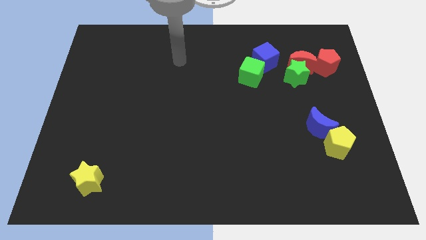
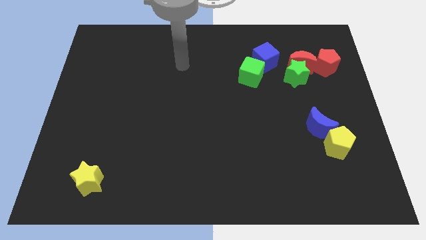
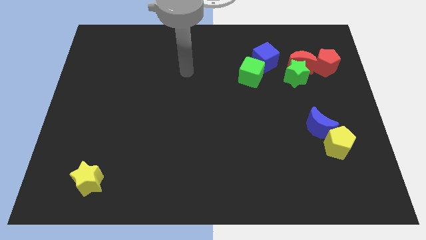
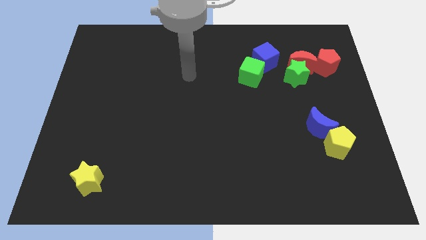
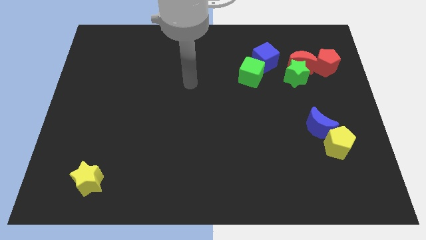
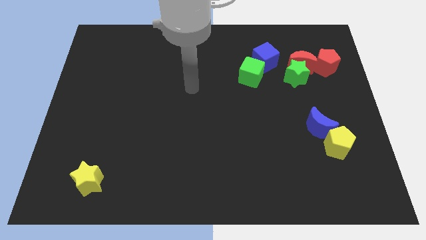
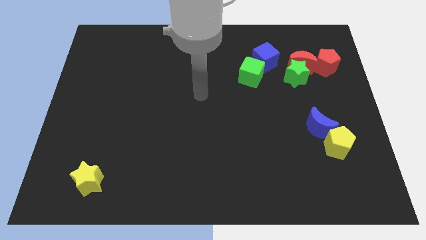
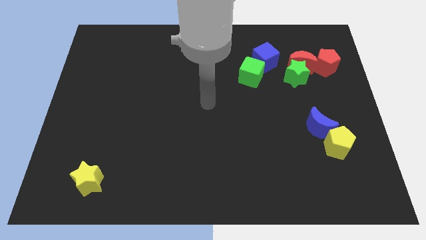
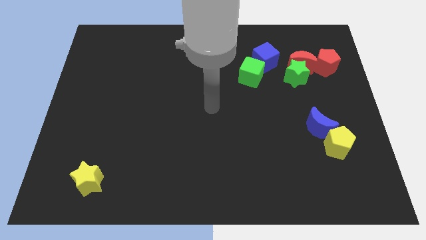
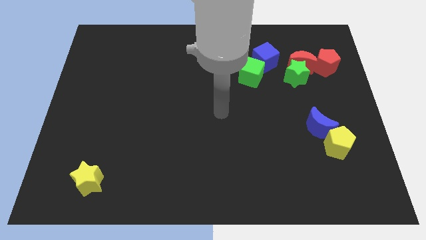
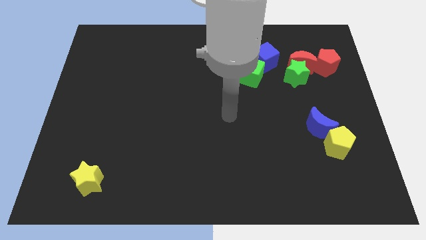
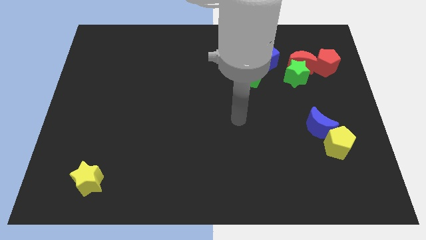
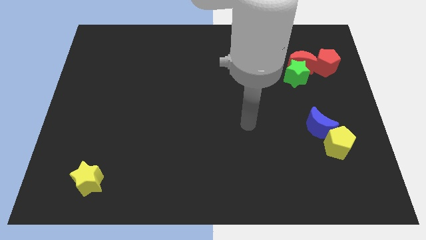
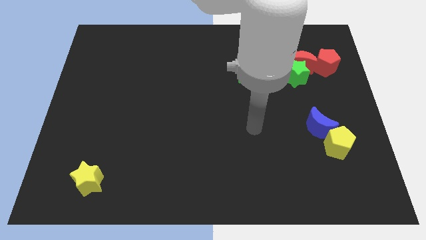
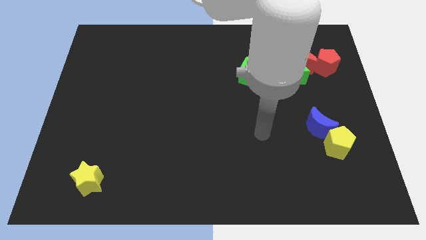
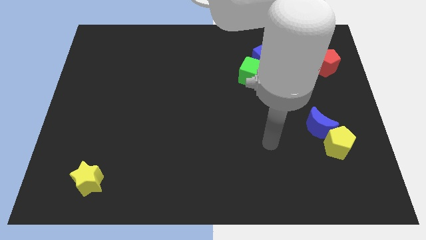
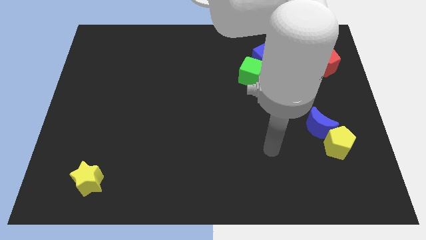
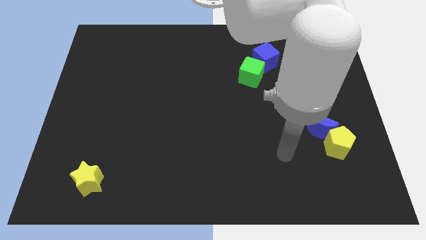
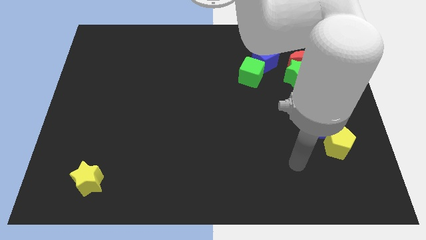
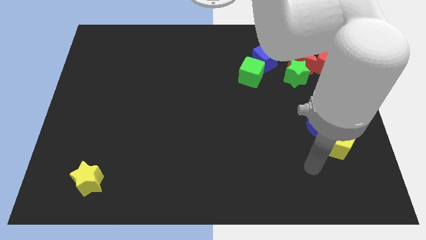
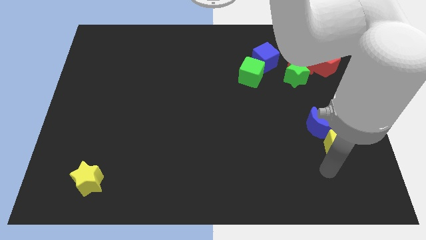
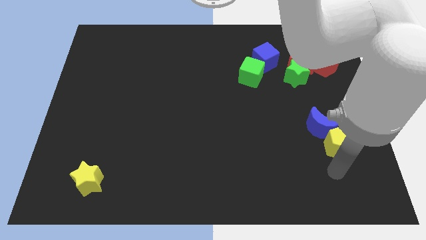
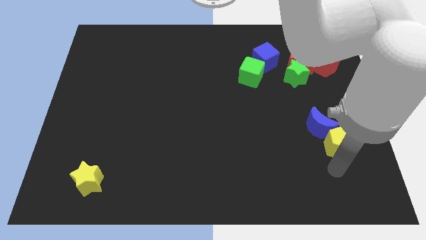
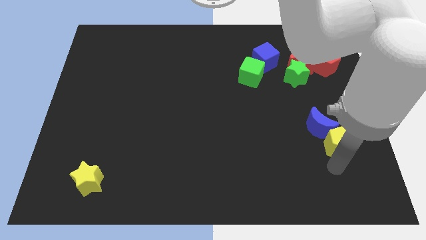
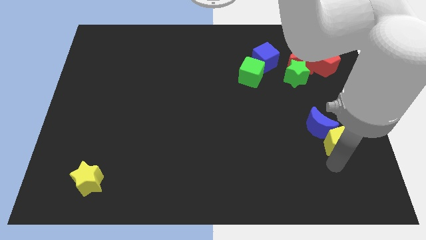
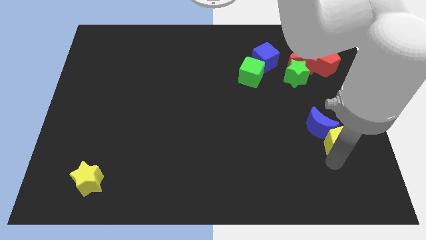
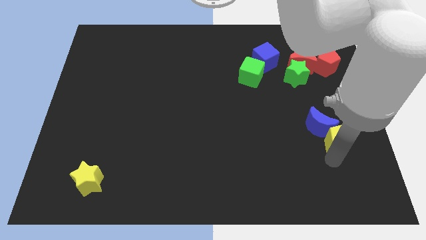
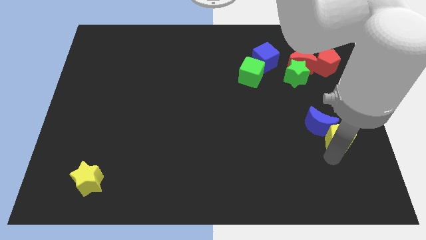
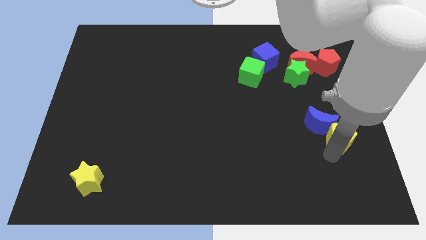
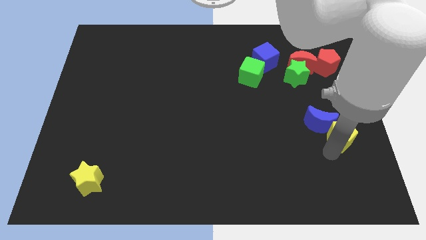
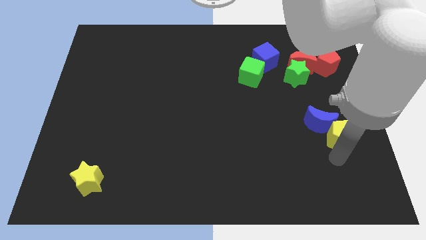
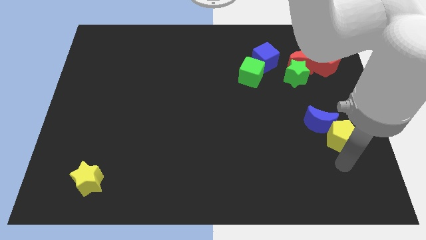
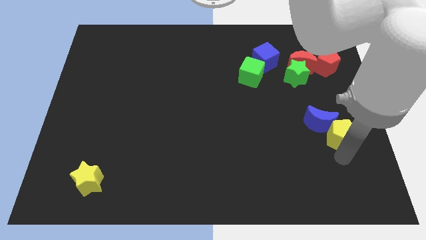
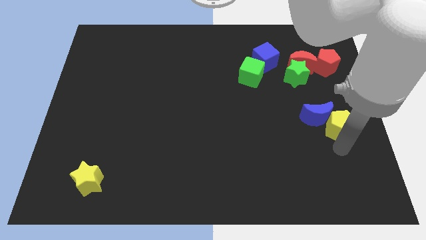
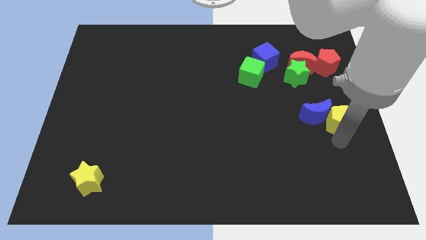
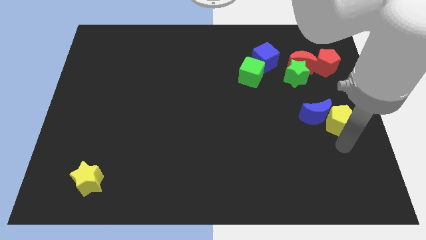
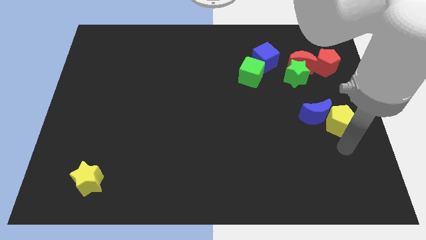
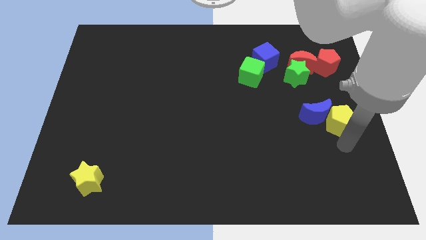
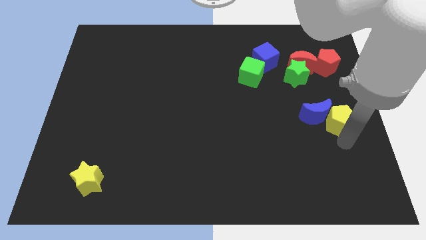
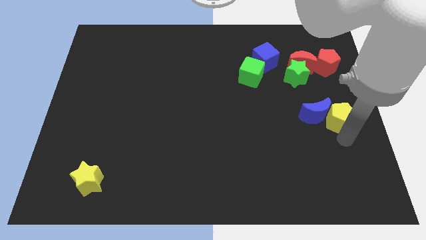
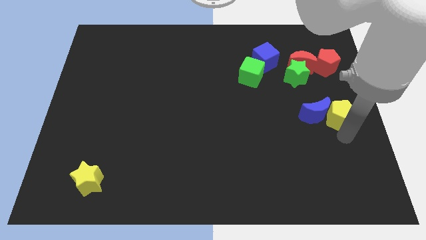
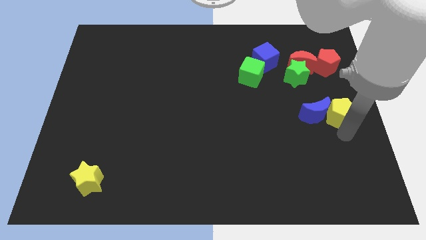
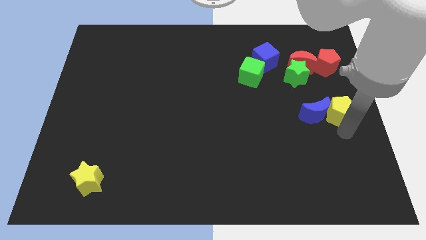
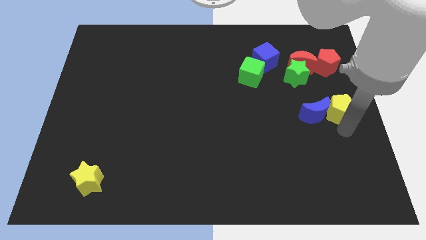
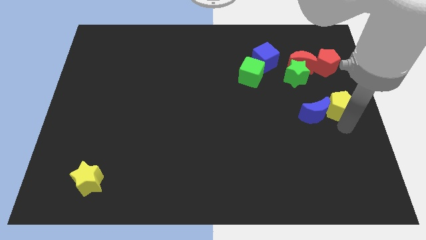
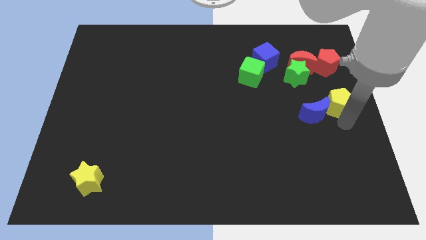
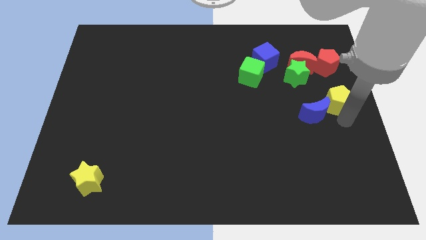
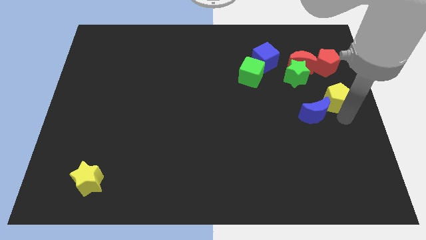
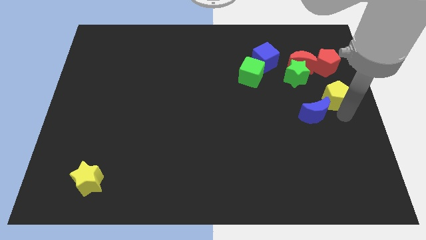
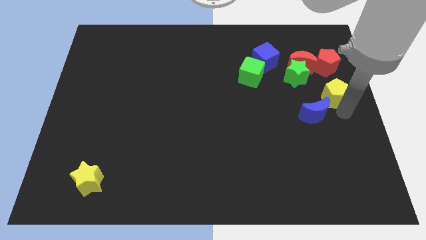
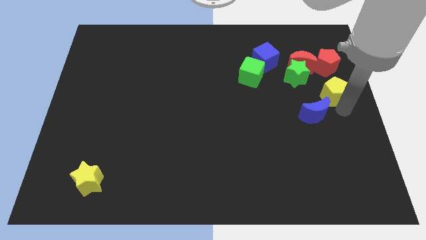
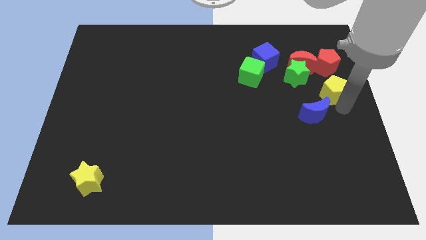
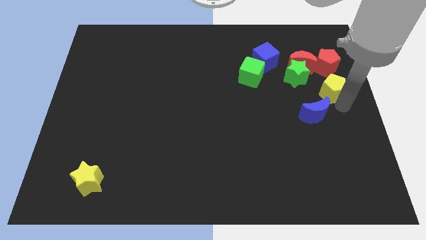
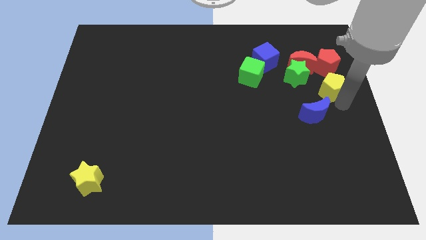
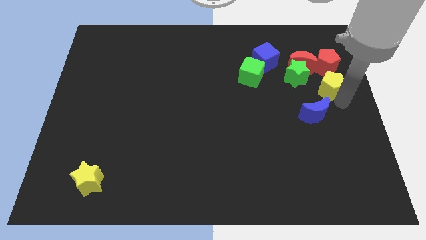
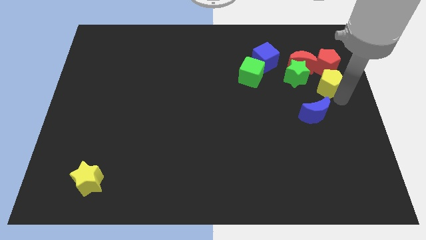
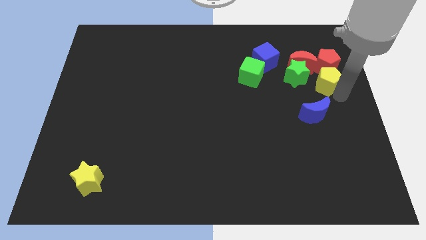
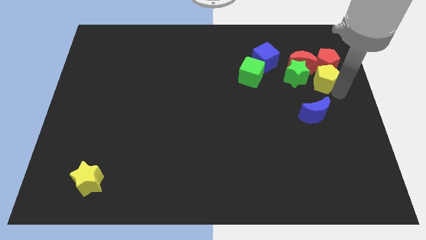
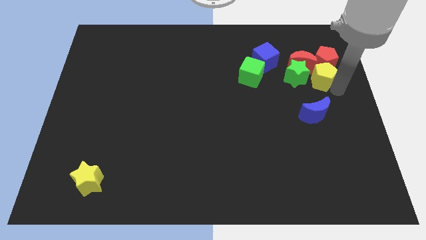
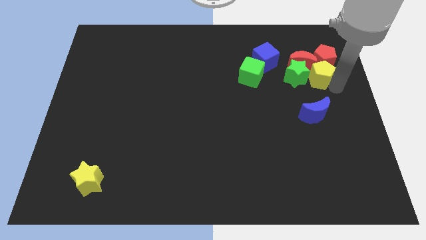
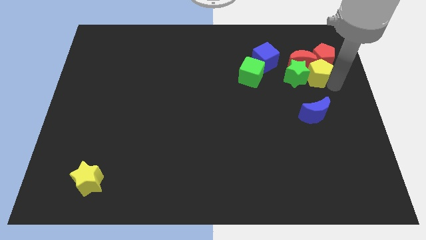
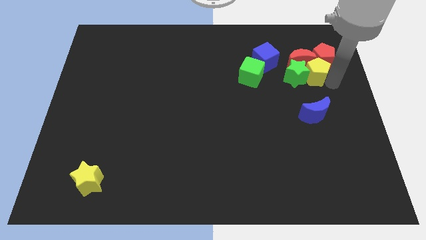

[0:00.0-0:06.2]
put the yellow pentagon to the right side of the green cube

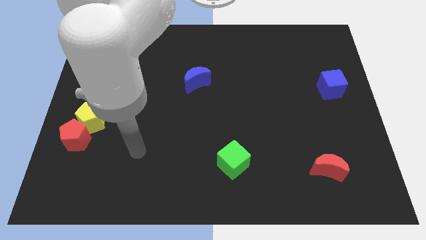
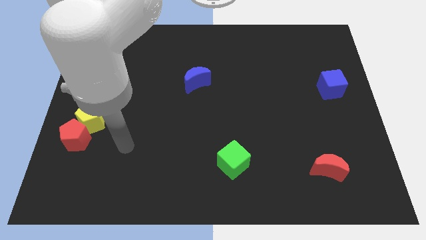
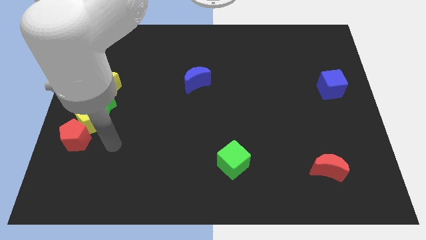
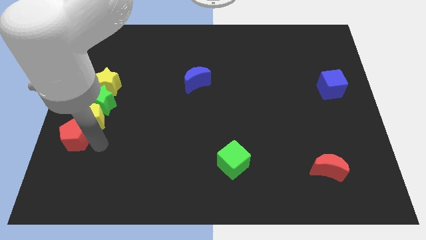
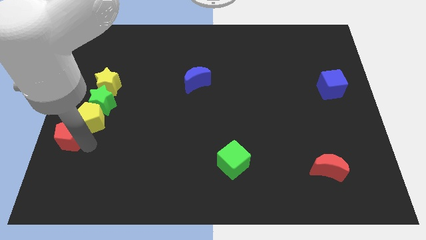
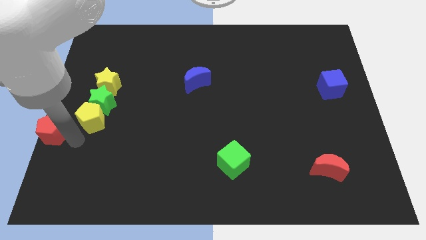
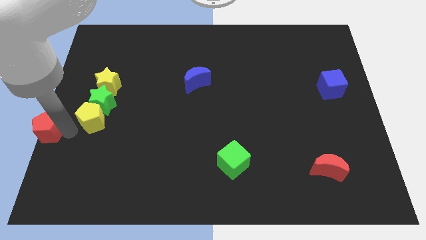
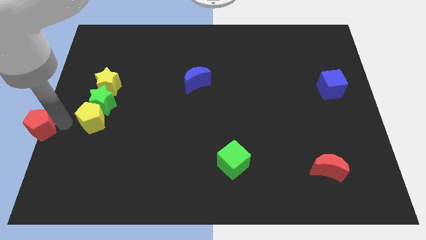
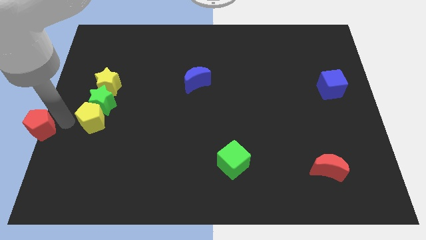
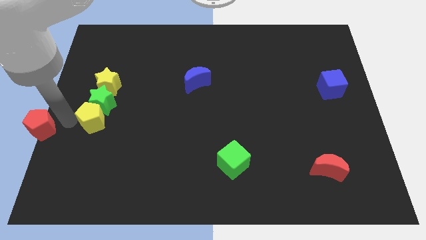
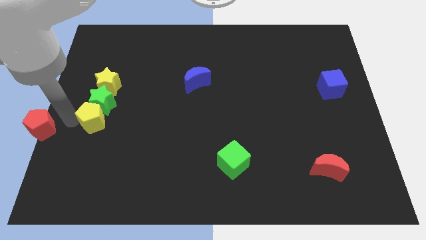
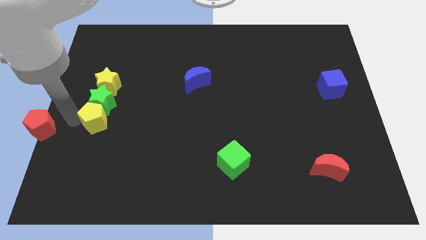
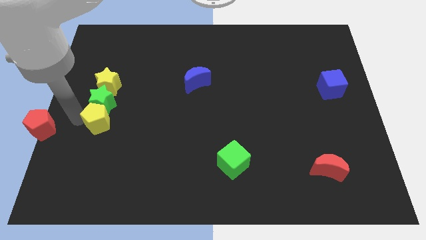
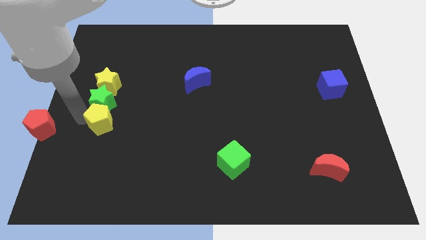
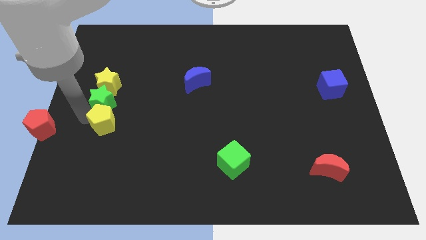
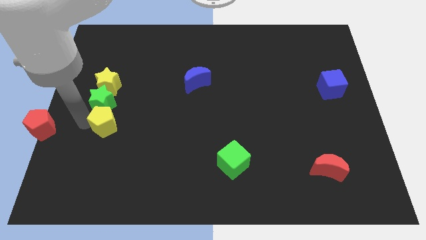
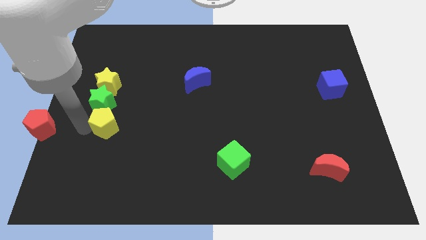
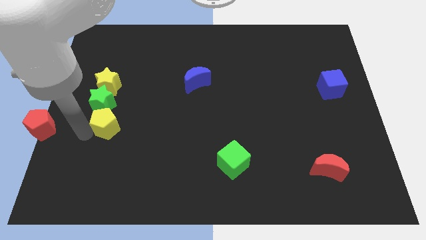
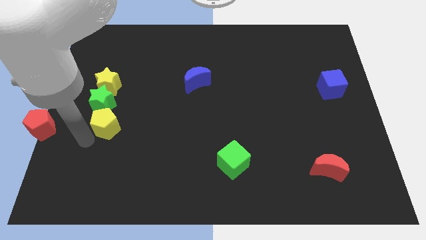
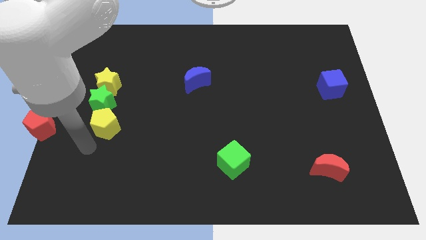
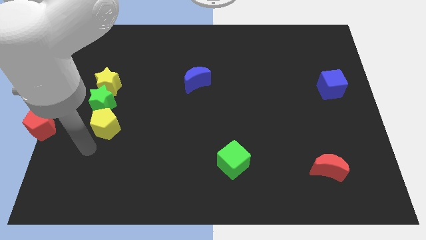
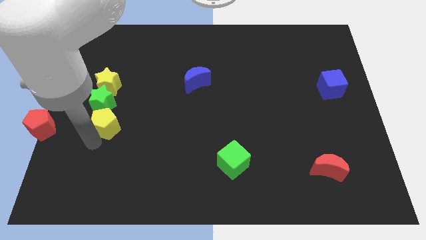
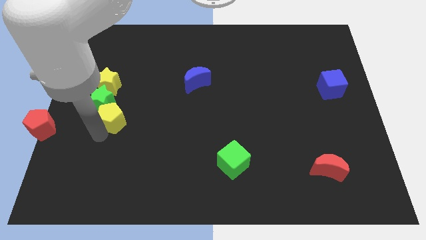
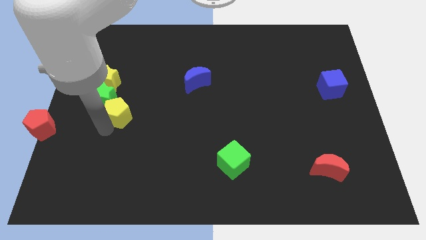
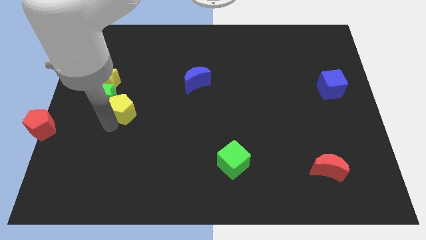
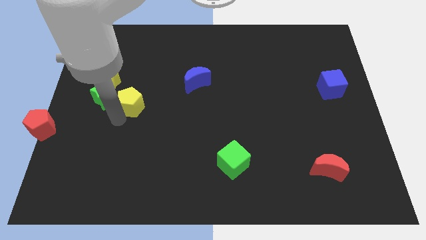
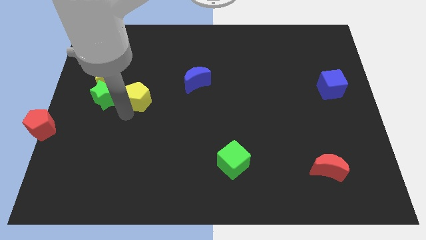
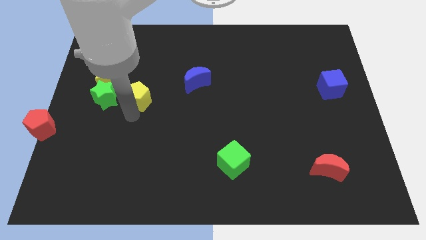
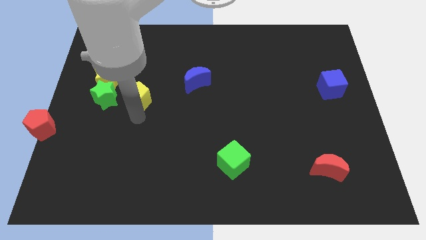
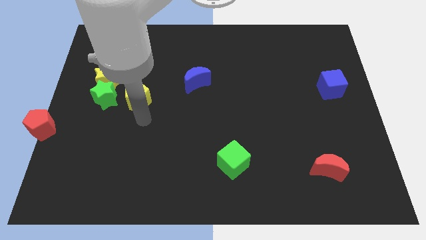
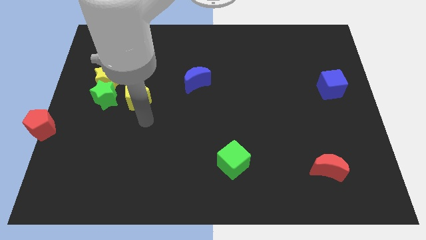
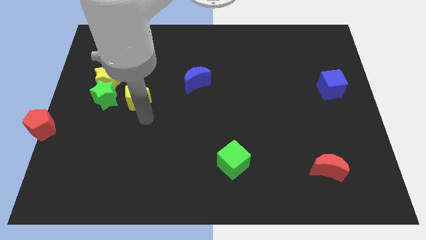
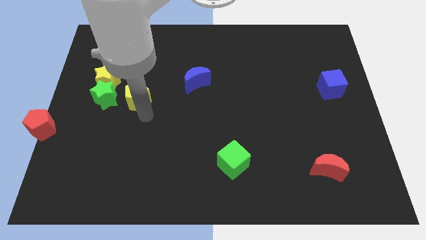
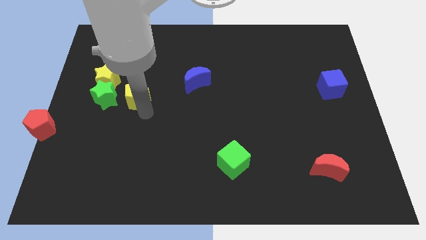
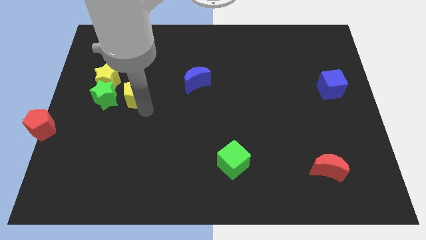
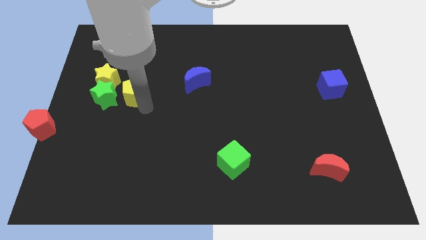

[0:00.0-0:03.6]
move the yellow pentagon to the top right side of the green star
